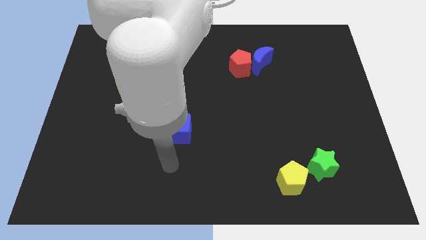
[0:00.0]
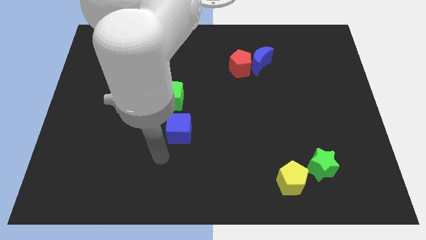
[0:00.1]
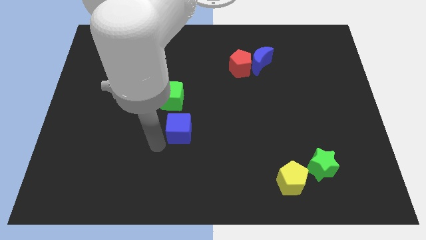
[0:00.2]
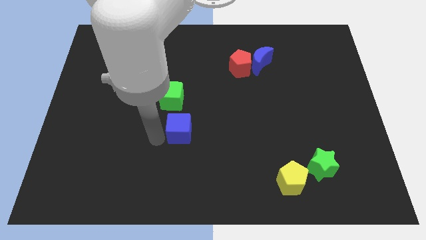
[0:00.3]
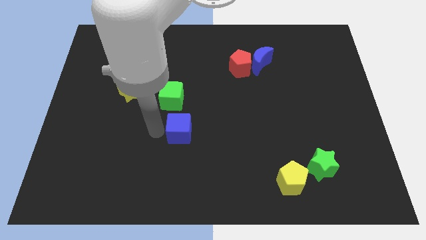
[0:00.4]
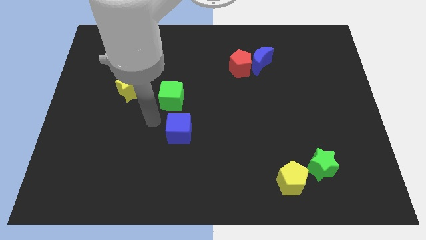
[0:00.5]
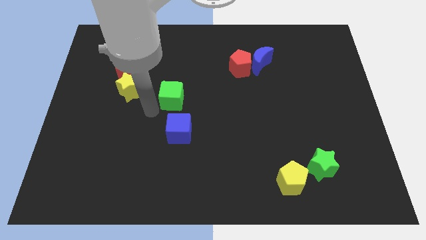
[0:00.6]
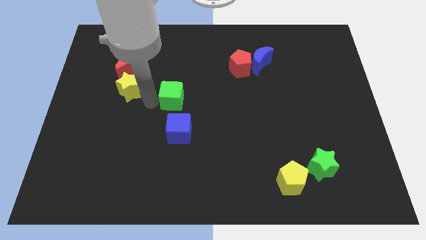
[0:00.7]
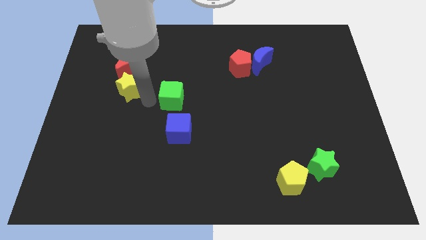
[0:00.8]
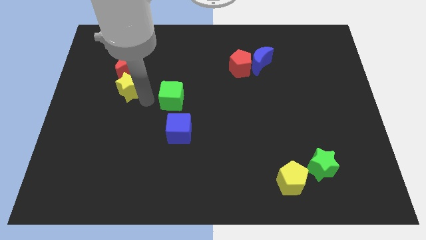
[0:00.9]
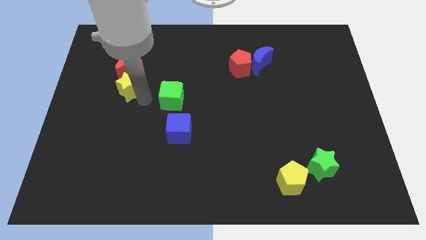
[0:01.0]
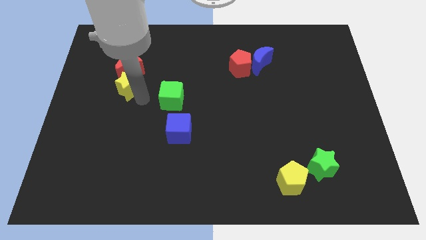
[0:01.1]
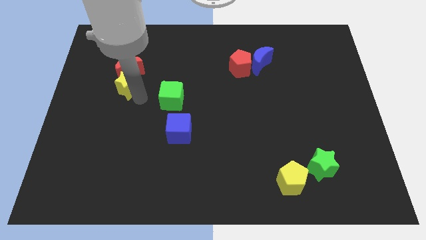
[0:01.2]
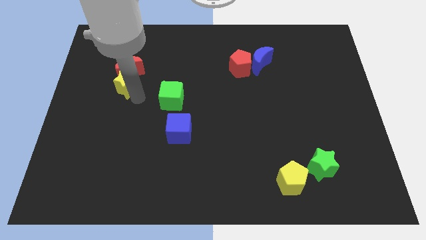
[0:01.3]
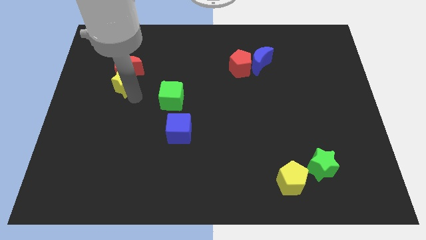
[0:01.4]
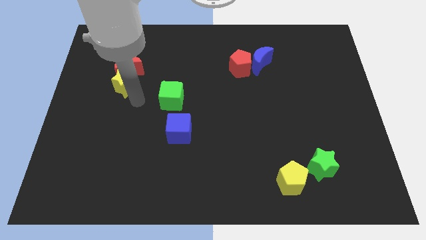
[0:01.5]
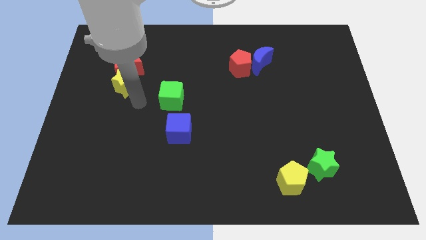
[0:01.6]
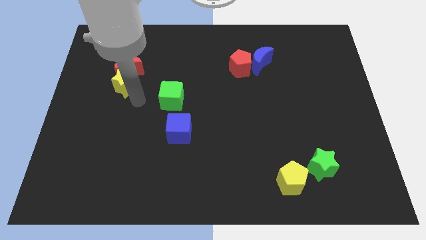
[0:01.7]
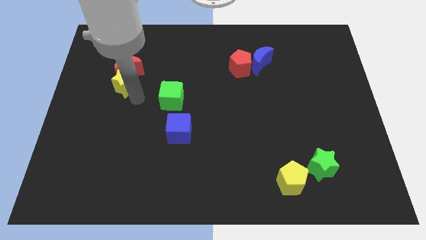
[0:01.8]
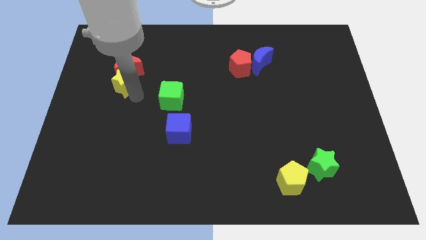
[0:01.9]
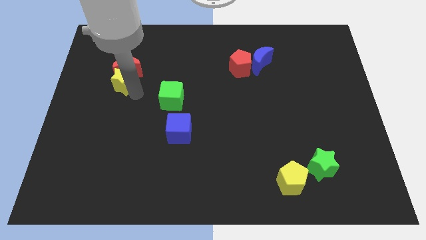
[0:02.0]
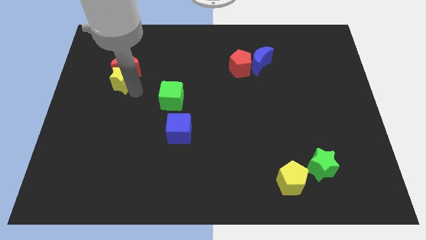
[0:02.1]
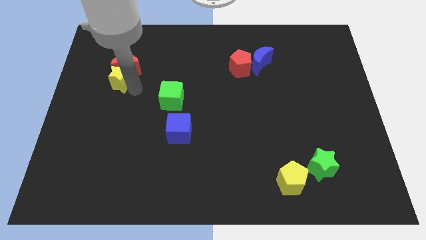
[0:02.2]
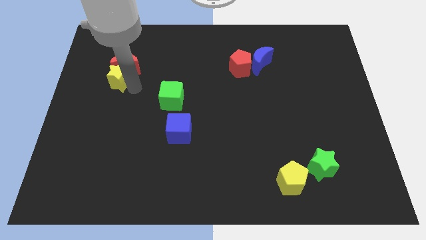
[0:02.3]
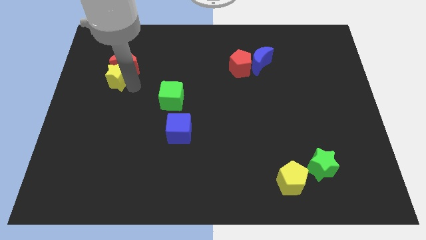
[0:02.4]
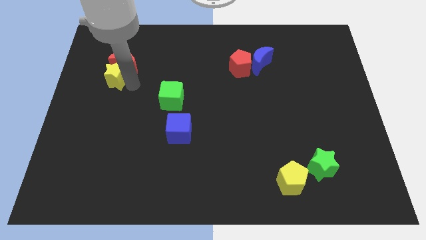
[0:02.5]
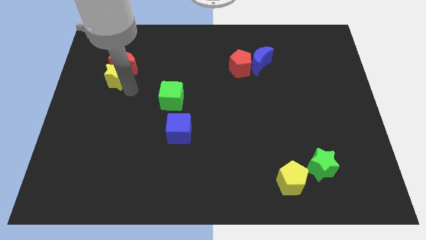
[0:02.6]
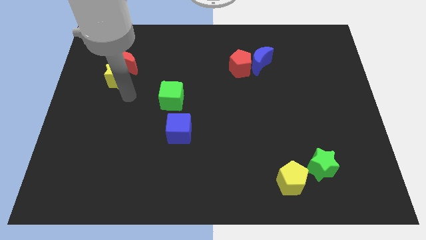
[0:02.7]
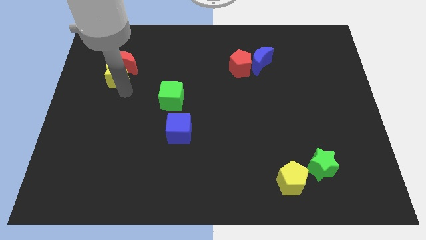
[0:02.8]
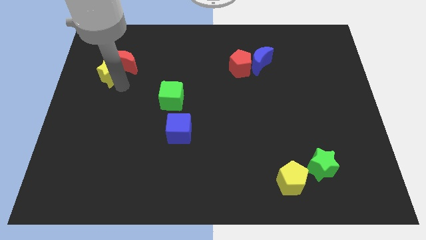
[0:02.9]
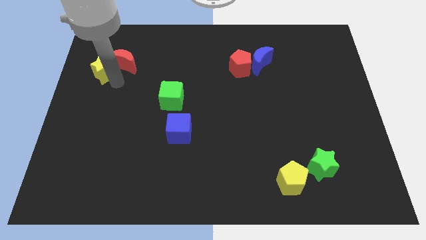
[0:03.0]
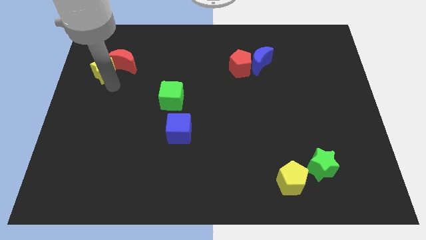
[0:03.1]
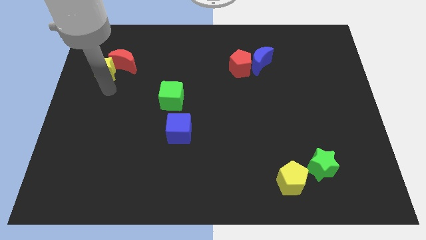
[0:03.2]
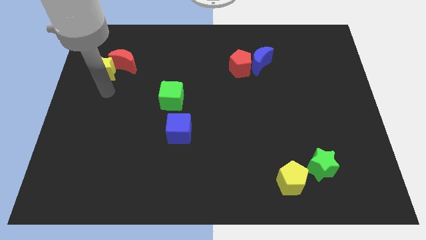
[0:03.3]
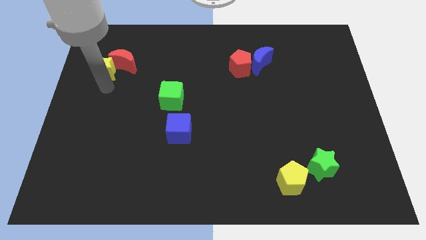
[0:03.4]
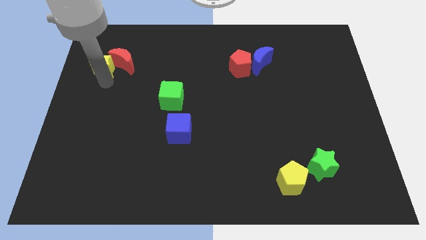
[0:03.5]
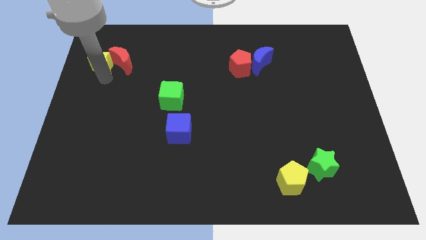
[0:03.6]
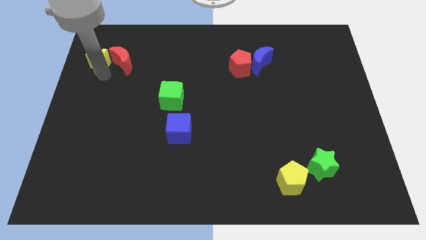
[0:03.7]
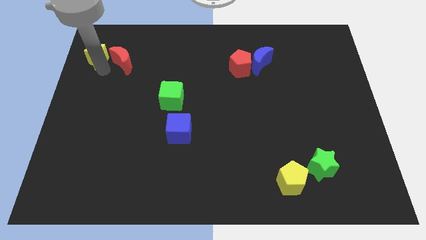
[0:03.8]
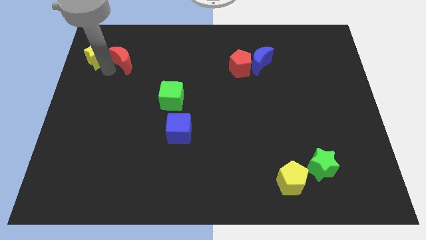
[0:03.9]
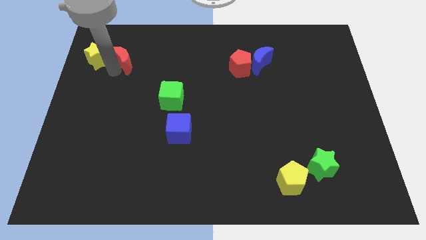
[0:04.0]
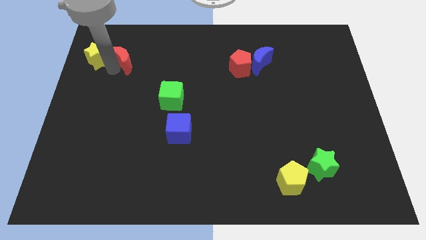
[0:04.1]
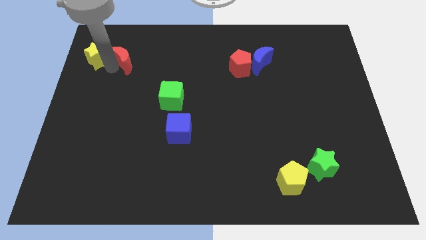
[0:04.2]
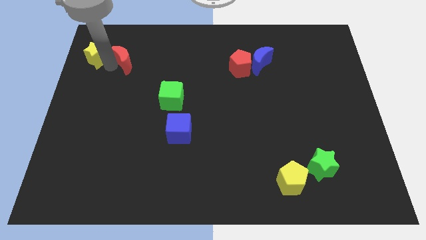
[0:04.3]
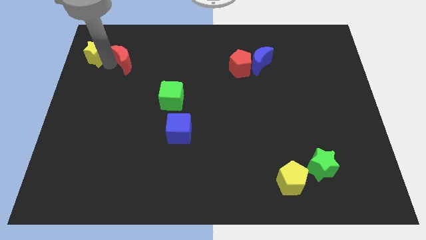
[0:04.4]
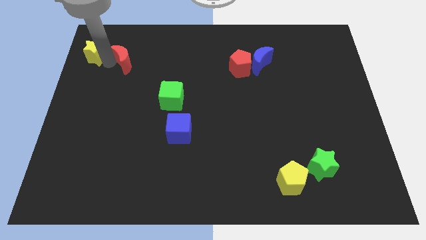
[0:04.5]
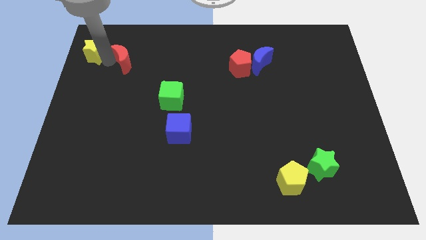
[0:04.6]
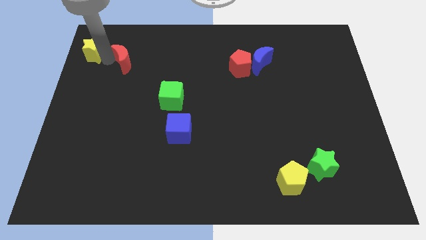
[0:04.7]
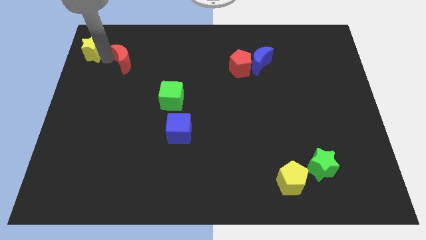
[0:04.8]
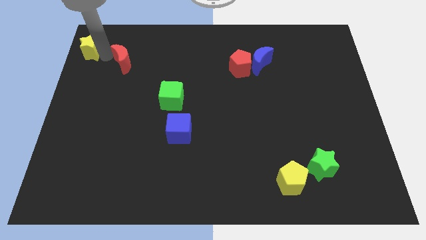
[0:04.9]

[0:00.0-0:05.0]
move the yellow star to the upper left corner

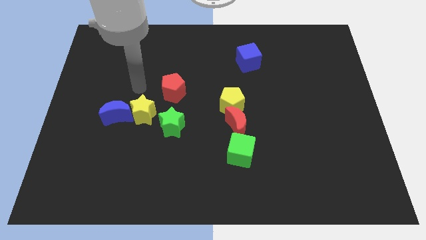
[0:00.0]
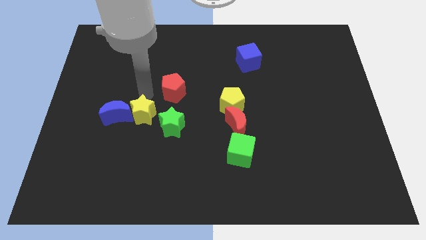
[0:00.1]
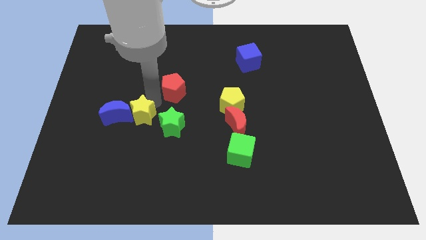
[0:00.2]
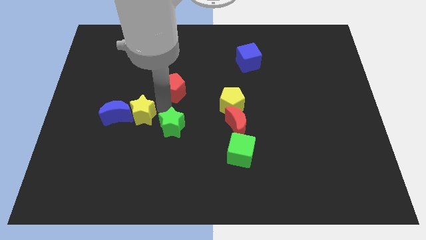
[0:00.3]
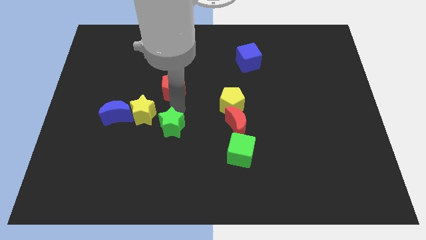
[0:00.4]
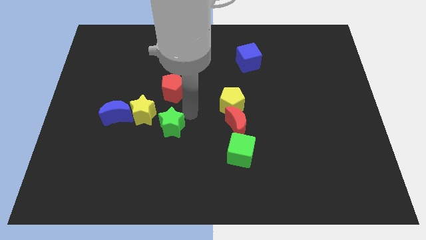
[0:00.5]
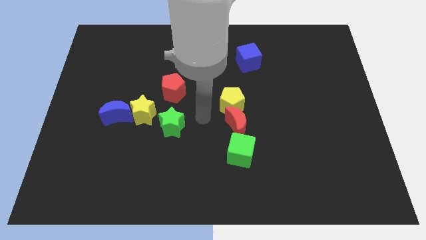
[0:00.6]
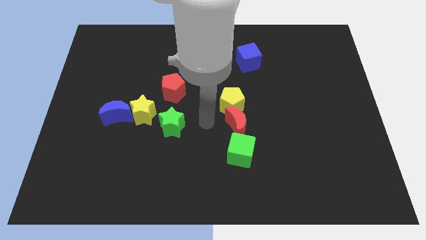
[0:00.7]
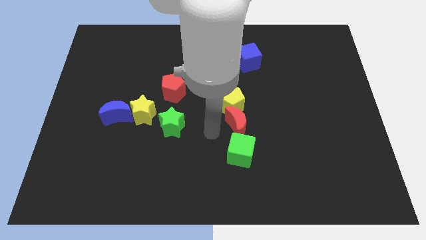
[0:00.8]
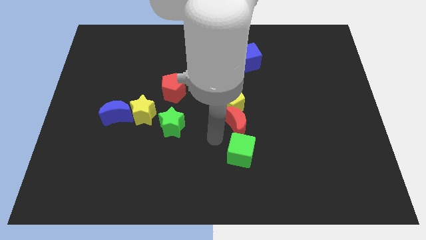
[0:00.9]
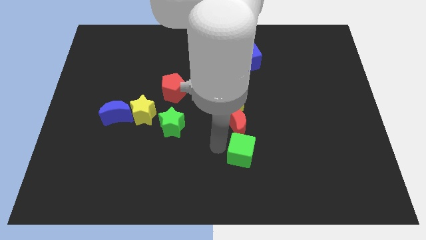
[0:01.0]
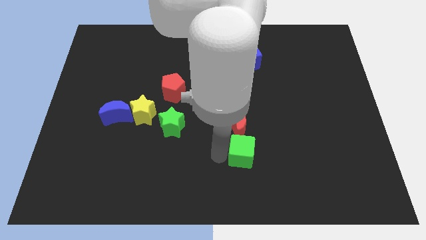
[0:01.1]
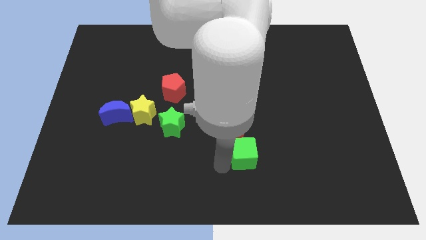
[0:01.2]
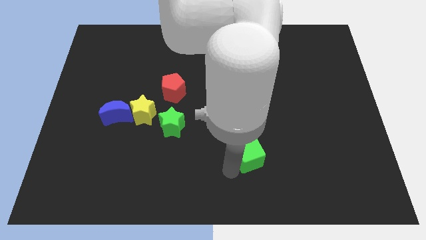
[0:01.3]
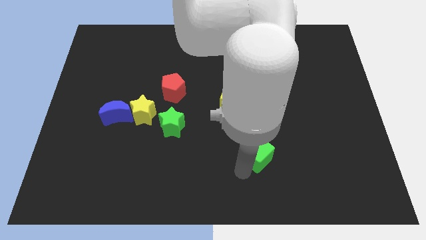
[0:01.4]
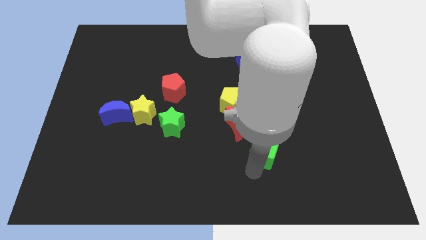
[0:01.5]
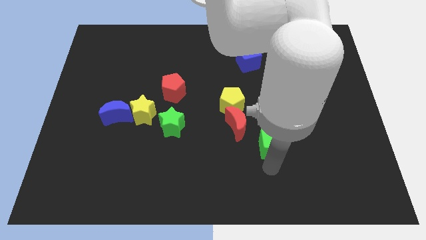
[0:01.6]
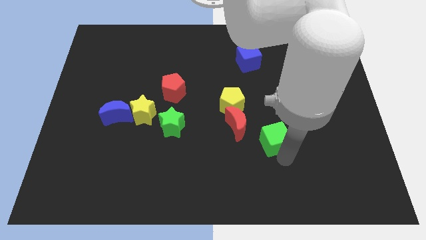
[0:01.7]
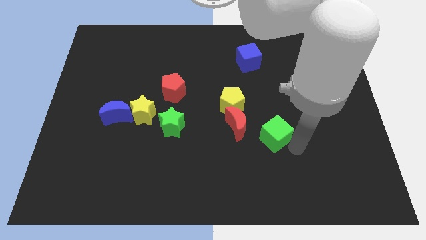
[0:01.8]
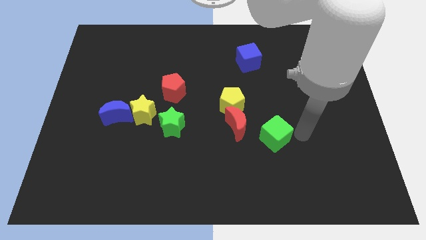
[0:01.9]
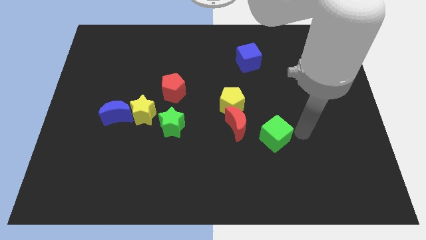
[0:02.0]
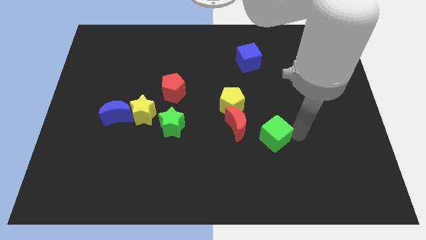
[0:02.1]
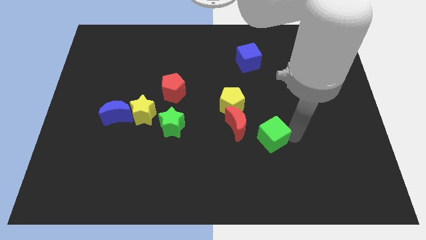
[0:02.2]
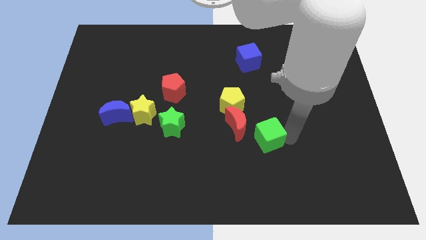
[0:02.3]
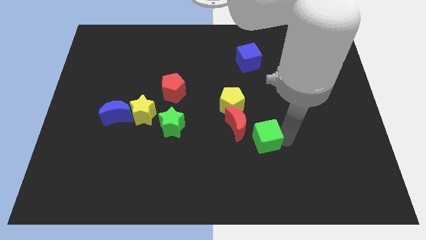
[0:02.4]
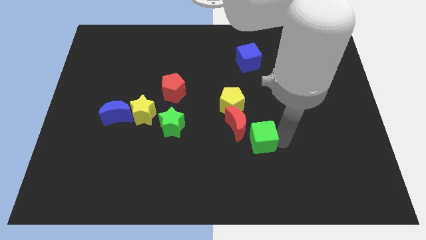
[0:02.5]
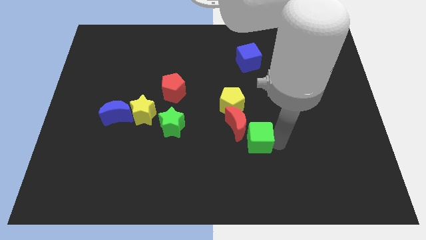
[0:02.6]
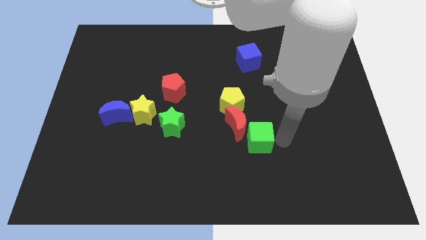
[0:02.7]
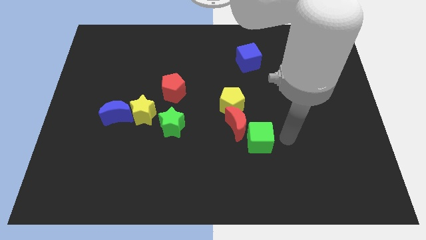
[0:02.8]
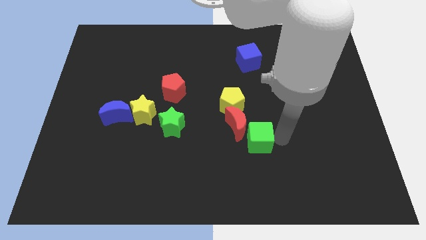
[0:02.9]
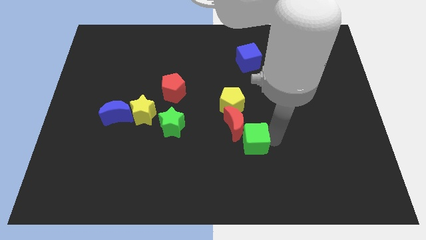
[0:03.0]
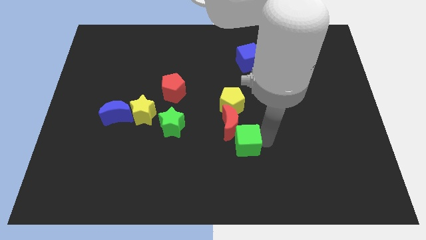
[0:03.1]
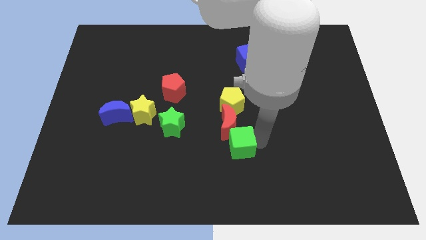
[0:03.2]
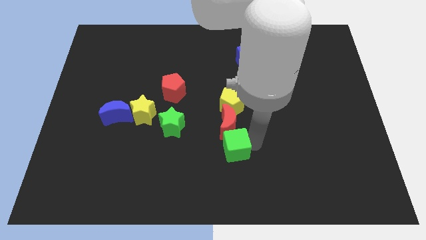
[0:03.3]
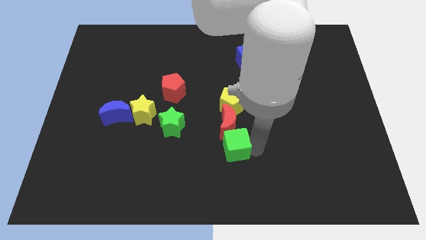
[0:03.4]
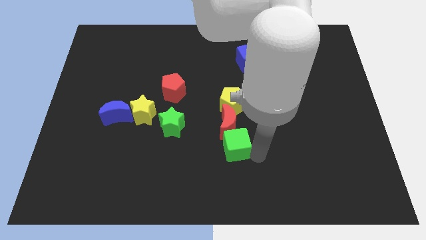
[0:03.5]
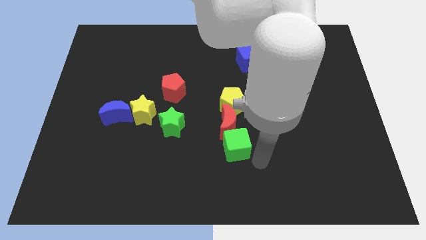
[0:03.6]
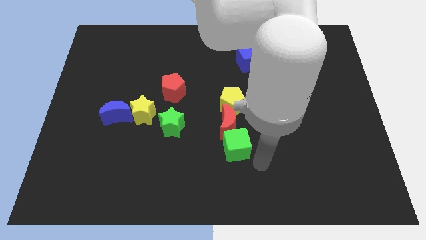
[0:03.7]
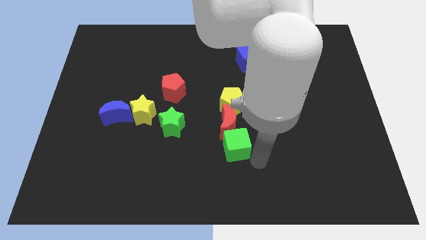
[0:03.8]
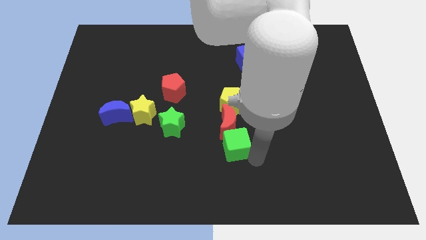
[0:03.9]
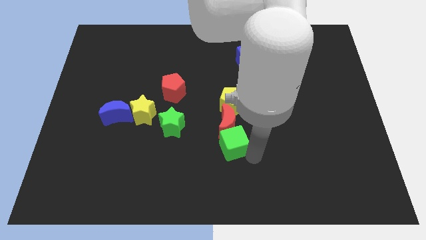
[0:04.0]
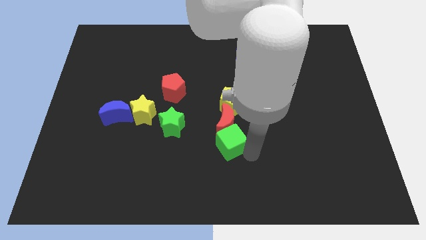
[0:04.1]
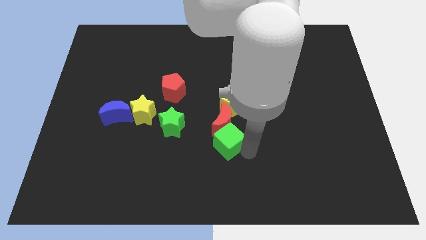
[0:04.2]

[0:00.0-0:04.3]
move the green cube to the middle
